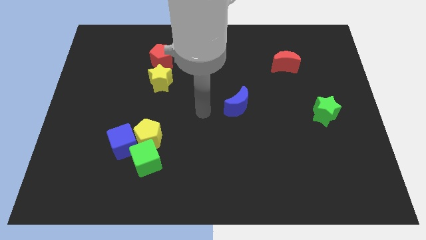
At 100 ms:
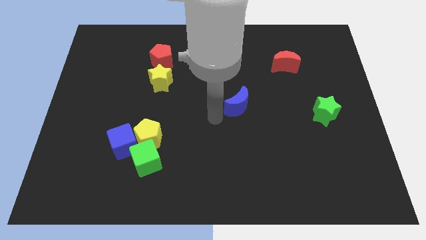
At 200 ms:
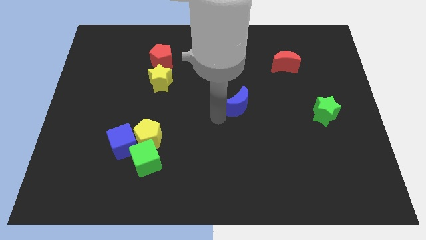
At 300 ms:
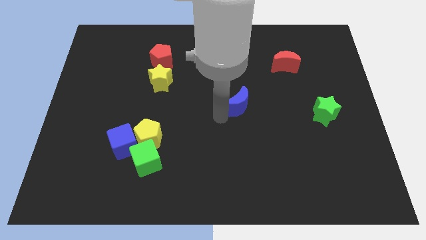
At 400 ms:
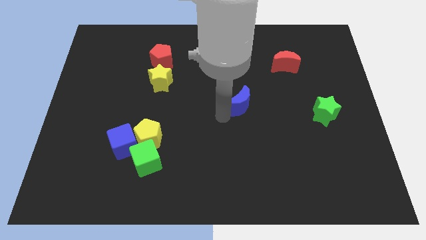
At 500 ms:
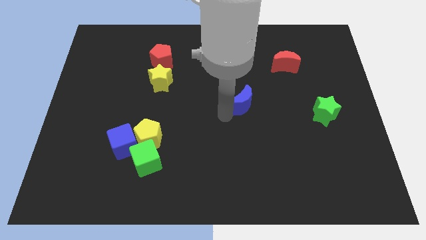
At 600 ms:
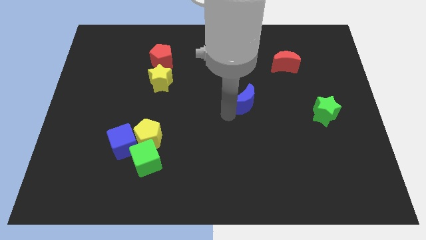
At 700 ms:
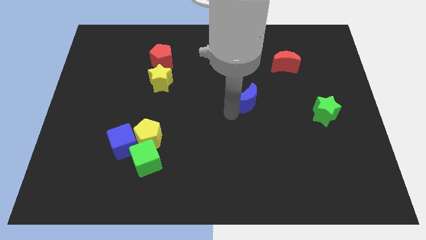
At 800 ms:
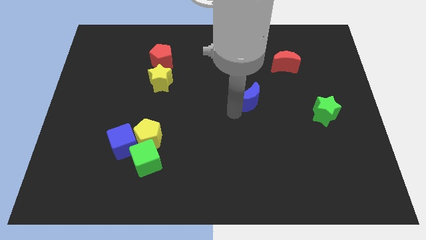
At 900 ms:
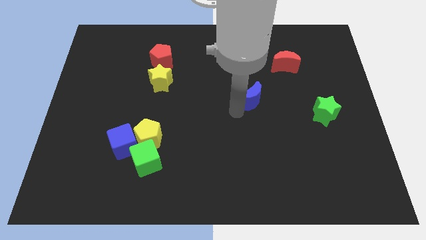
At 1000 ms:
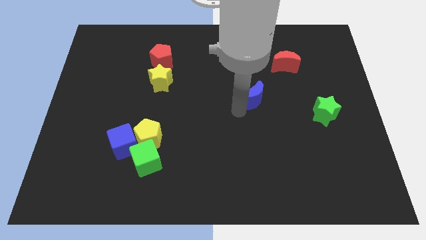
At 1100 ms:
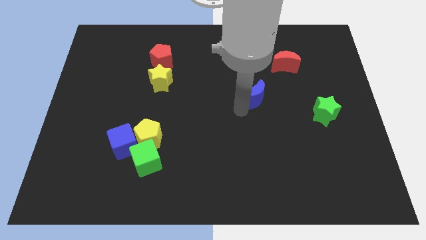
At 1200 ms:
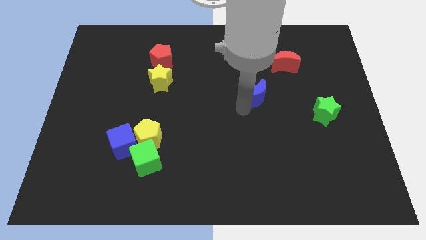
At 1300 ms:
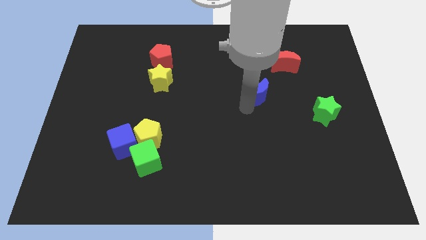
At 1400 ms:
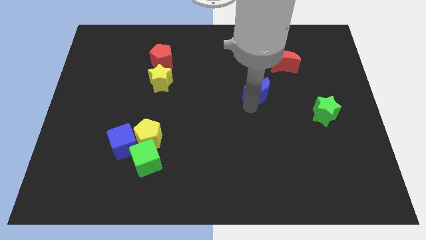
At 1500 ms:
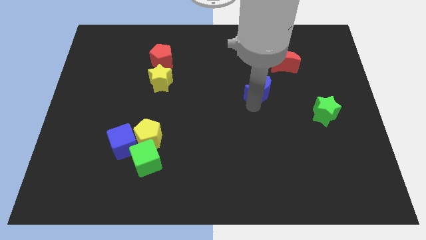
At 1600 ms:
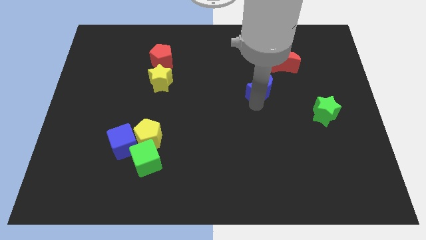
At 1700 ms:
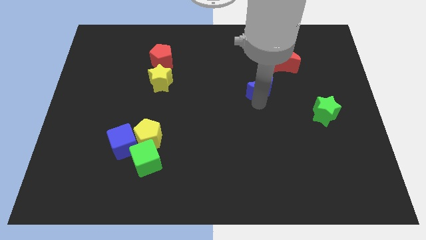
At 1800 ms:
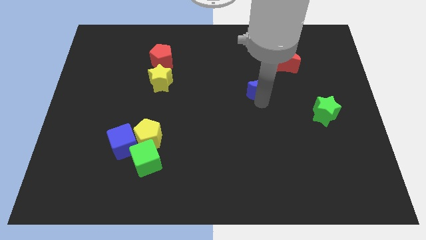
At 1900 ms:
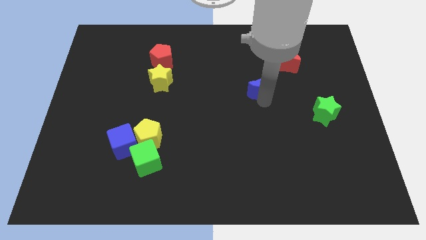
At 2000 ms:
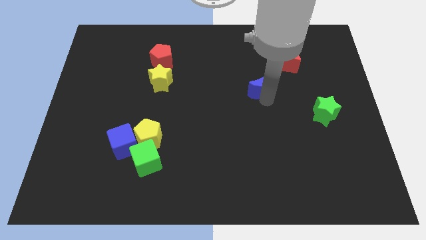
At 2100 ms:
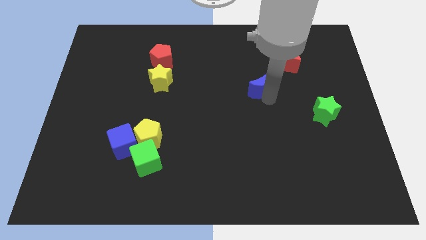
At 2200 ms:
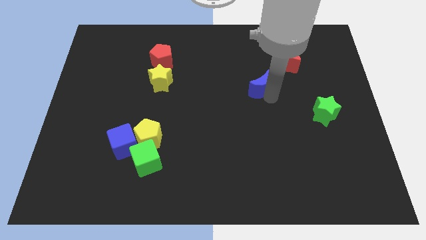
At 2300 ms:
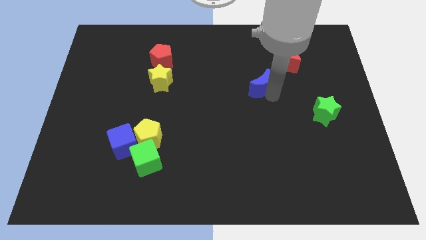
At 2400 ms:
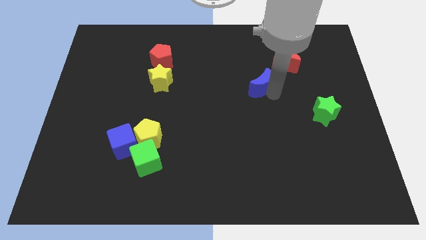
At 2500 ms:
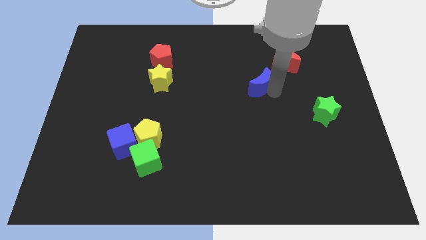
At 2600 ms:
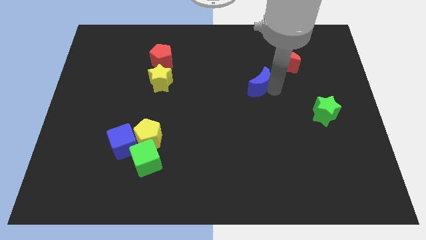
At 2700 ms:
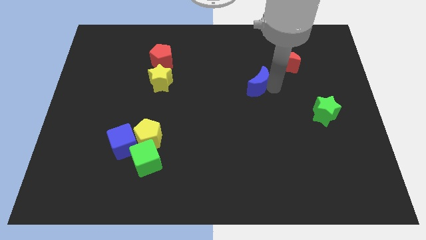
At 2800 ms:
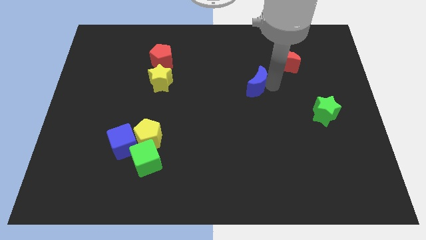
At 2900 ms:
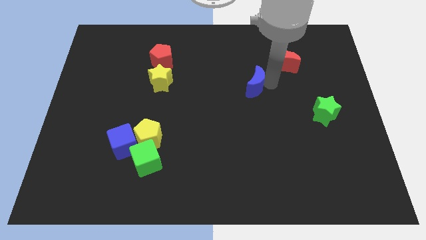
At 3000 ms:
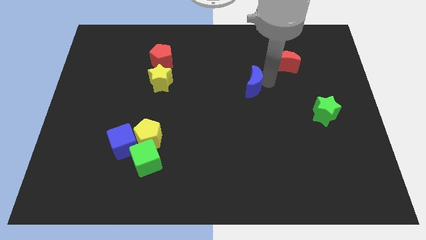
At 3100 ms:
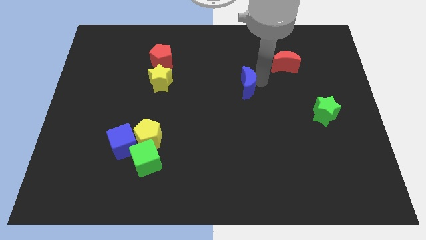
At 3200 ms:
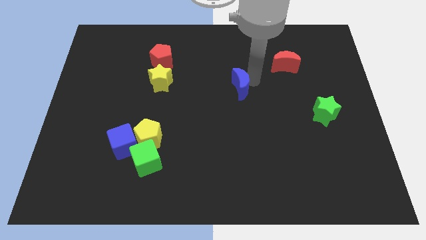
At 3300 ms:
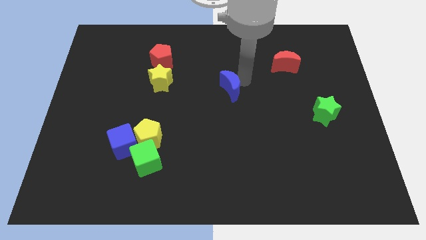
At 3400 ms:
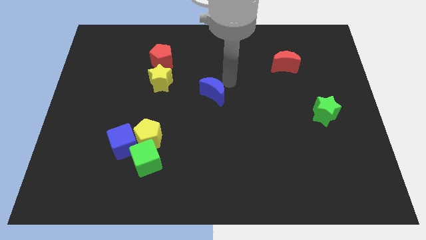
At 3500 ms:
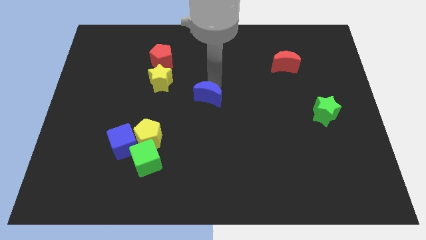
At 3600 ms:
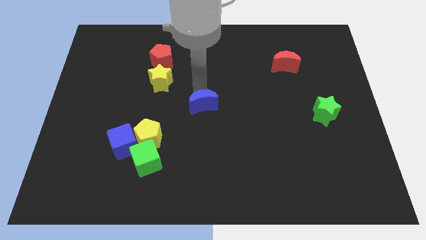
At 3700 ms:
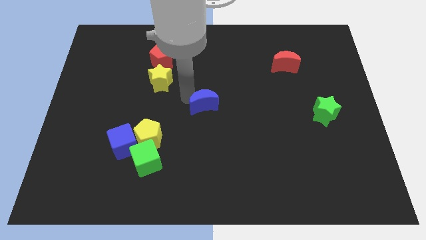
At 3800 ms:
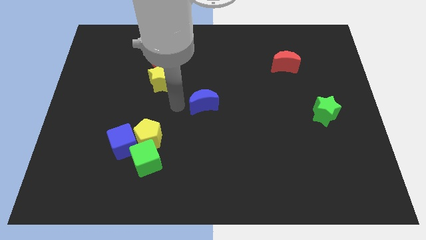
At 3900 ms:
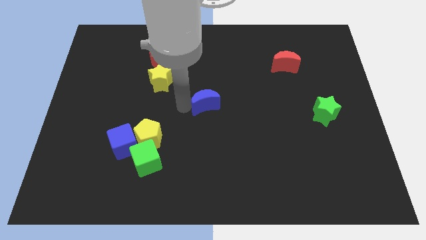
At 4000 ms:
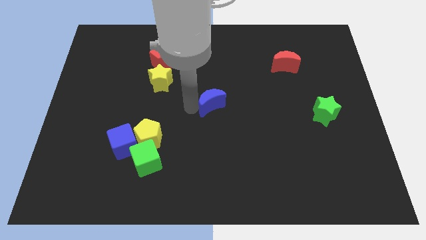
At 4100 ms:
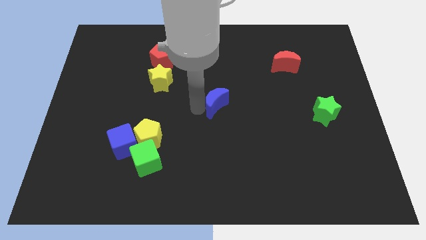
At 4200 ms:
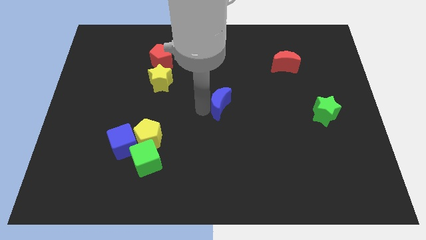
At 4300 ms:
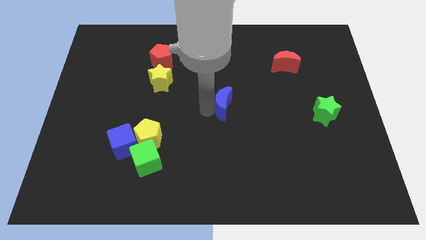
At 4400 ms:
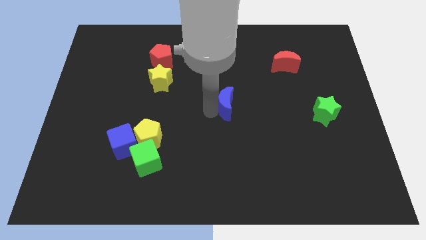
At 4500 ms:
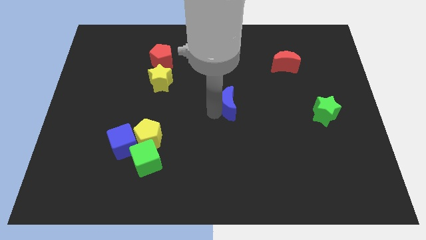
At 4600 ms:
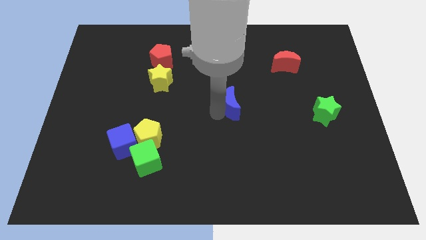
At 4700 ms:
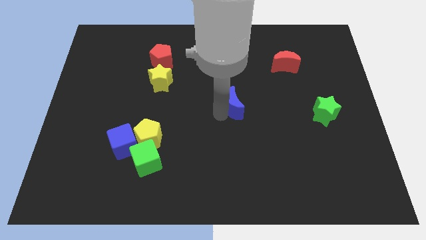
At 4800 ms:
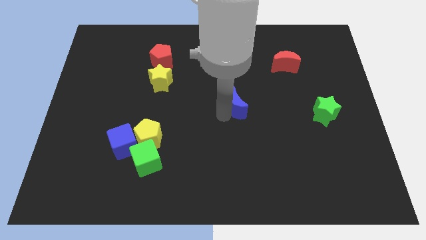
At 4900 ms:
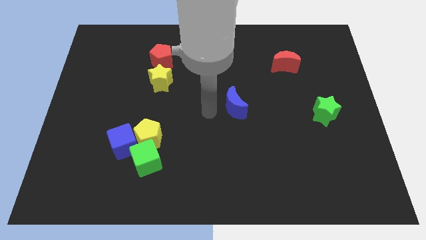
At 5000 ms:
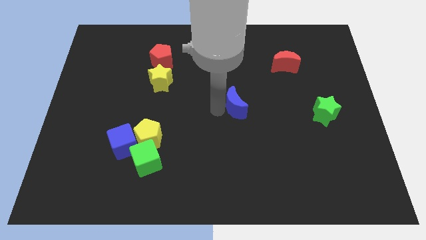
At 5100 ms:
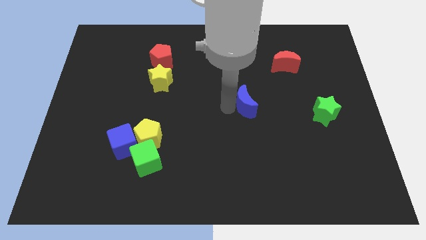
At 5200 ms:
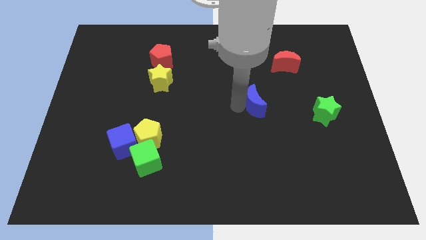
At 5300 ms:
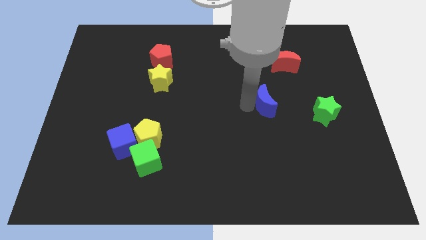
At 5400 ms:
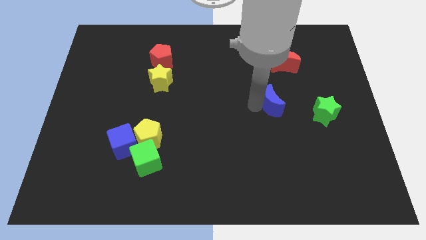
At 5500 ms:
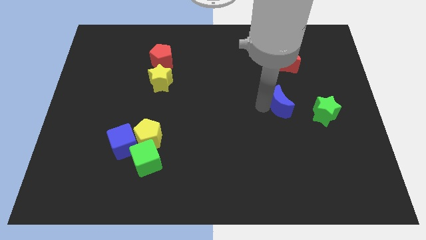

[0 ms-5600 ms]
move the blue moon to the bottom side of the red moon

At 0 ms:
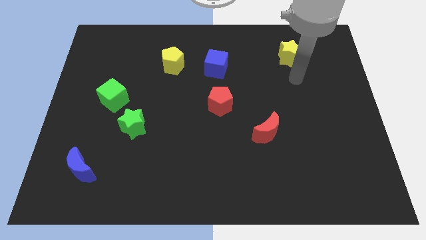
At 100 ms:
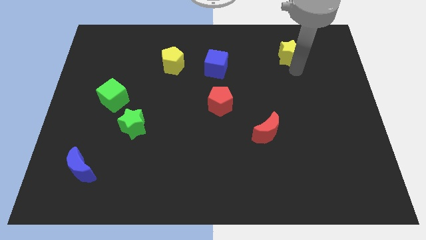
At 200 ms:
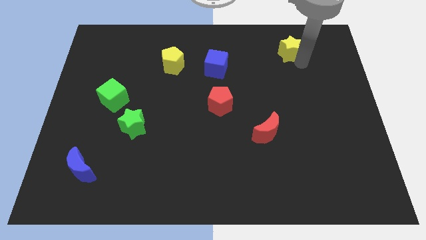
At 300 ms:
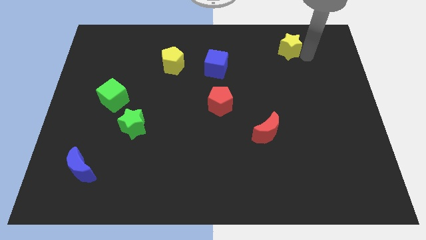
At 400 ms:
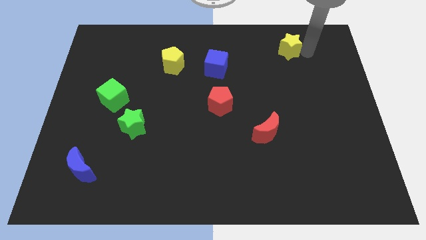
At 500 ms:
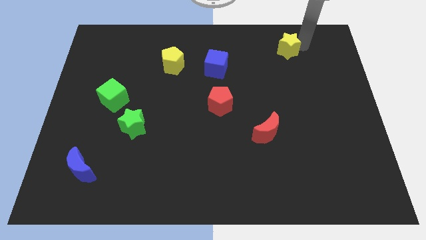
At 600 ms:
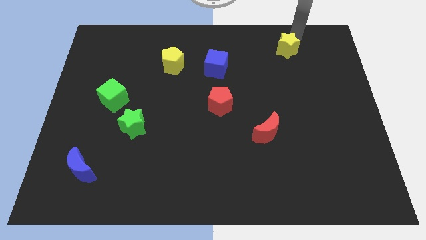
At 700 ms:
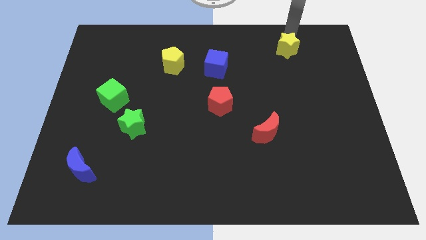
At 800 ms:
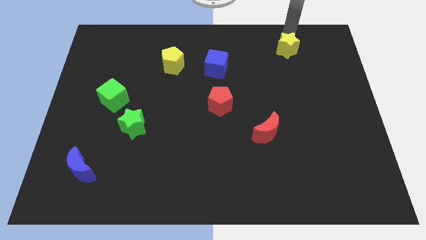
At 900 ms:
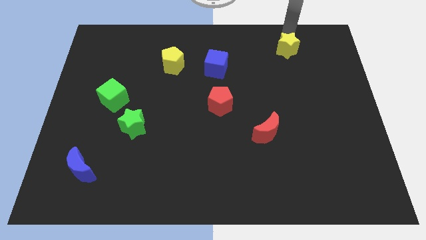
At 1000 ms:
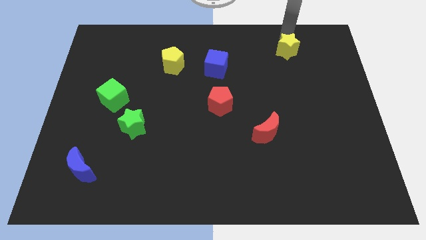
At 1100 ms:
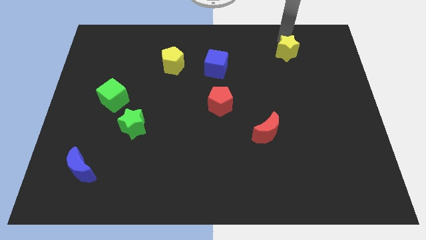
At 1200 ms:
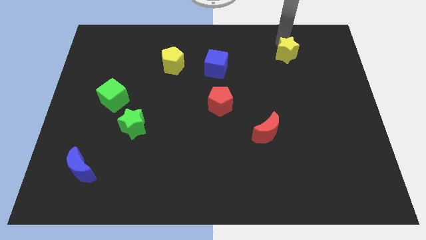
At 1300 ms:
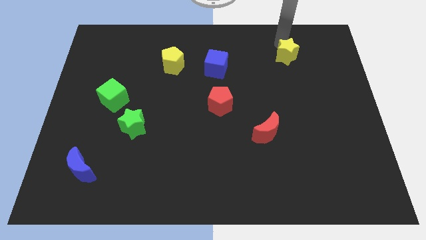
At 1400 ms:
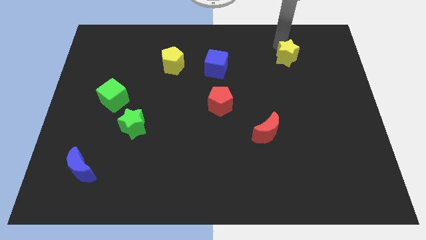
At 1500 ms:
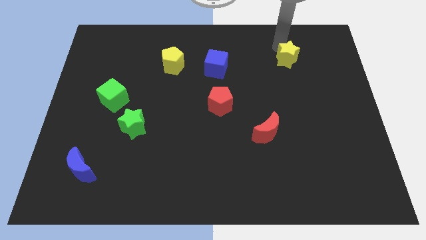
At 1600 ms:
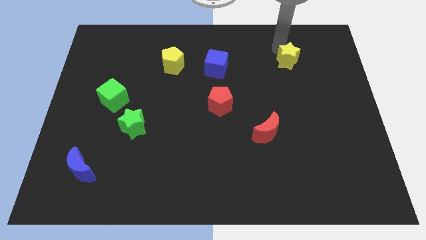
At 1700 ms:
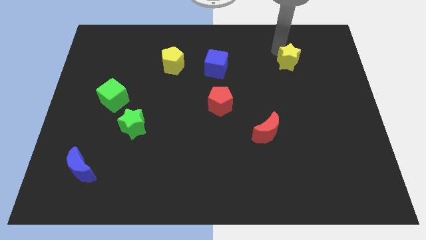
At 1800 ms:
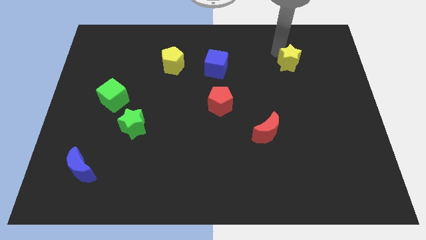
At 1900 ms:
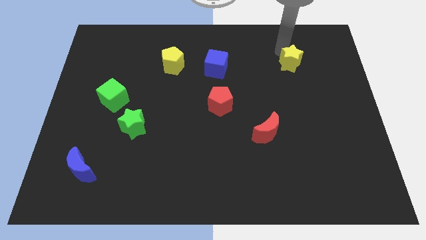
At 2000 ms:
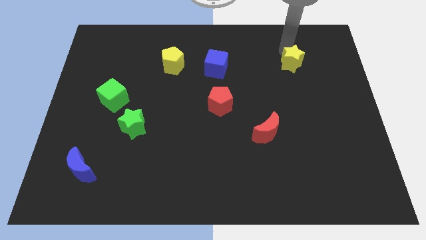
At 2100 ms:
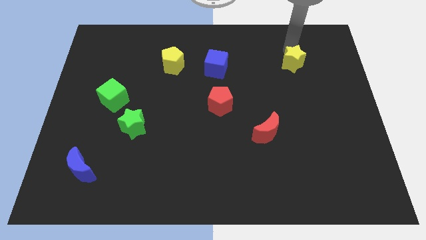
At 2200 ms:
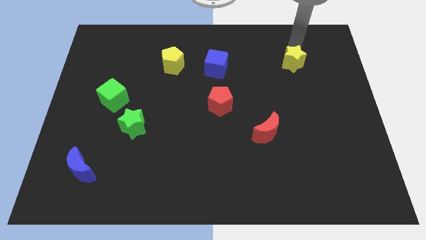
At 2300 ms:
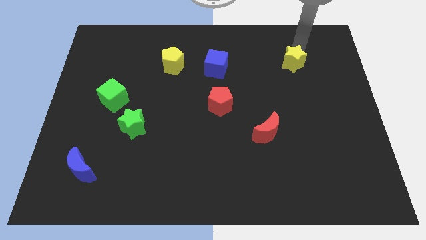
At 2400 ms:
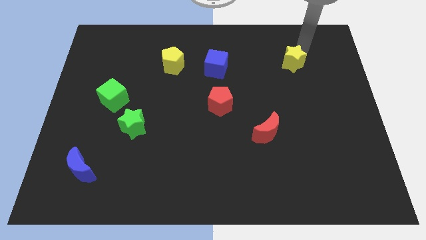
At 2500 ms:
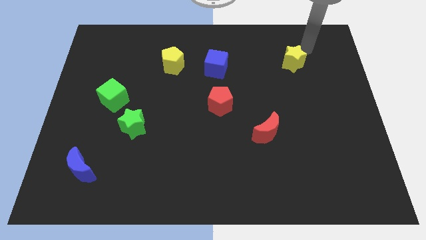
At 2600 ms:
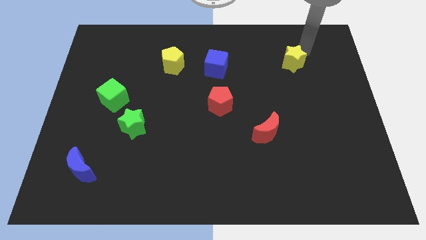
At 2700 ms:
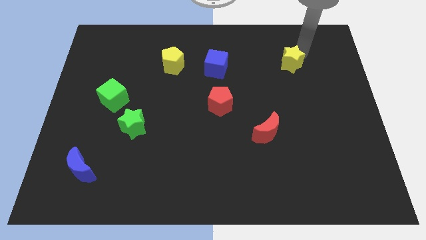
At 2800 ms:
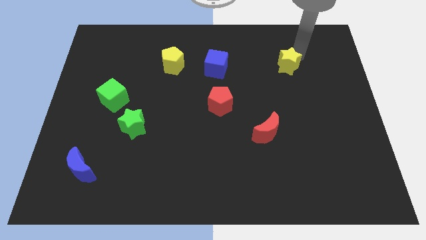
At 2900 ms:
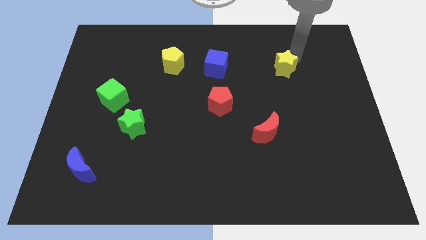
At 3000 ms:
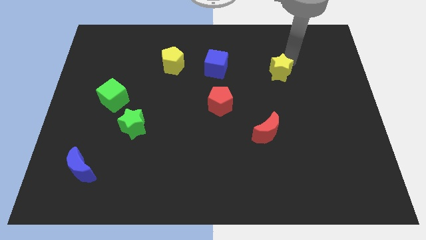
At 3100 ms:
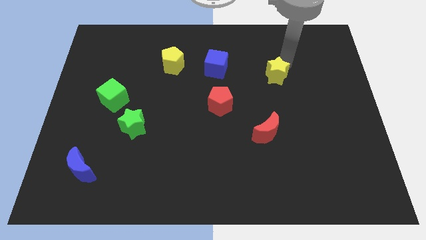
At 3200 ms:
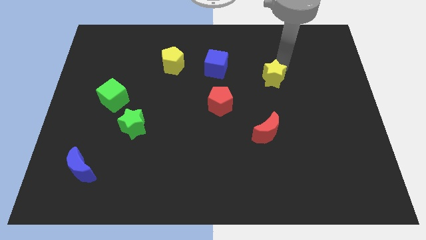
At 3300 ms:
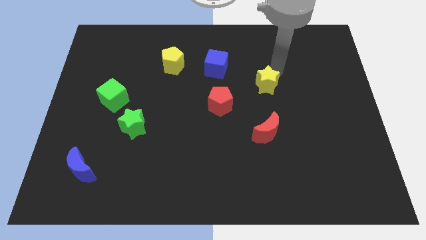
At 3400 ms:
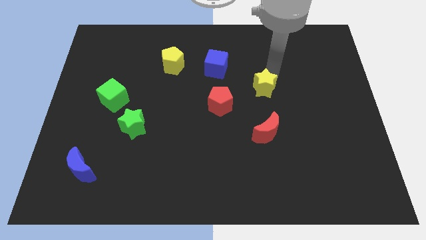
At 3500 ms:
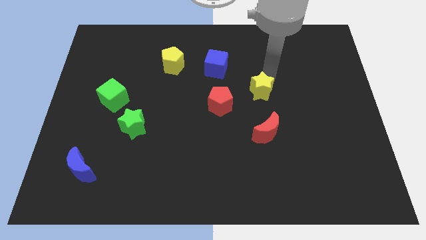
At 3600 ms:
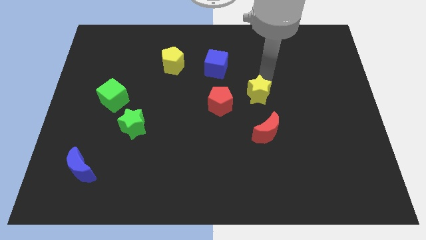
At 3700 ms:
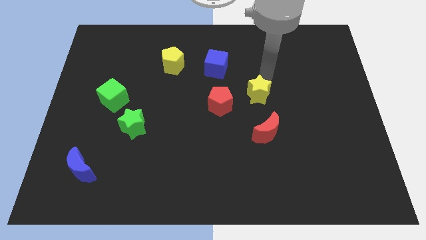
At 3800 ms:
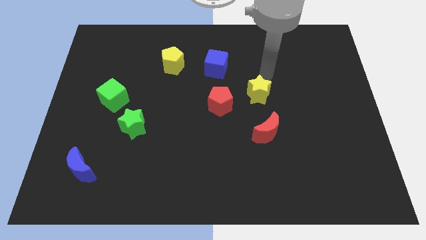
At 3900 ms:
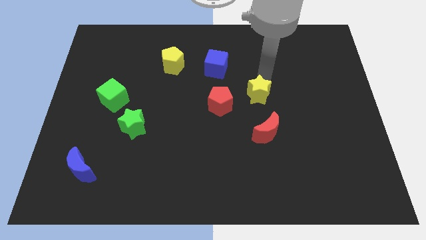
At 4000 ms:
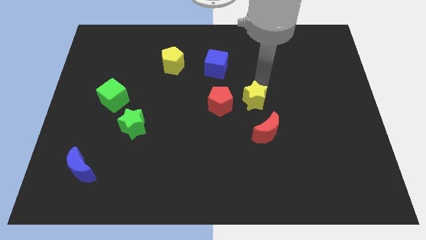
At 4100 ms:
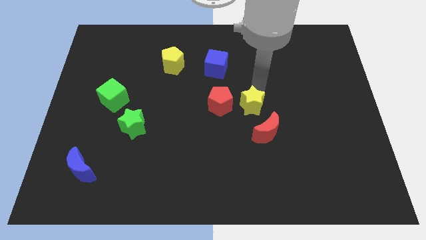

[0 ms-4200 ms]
put the yellow star to the bottom right side of the red pentagon
